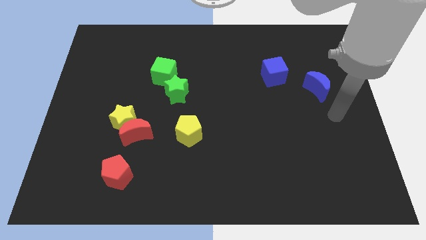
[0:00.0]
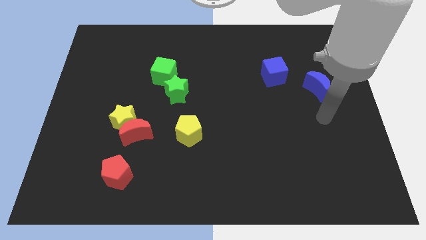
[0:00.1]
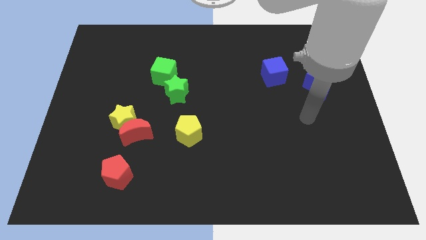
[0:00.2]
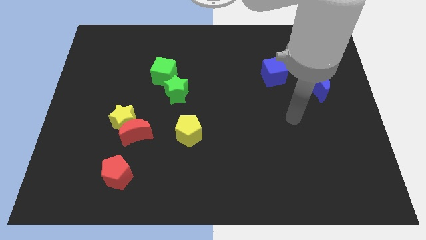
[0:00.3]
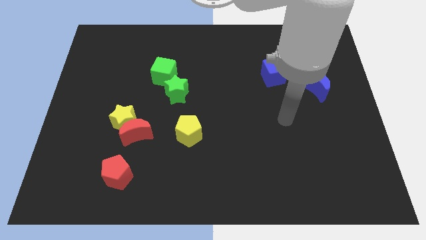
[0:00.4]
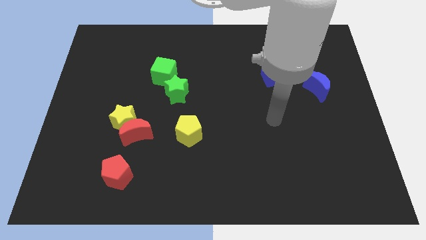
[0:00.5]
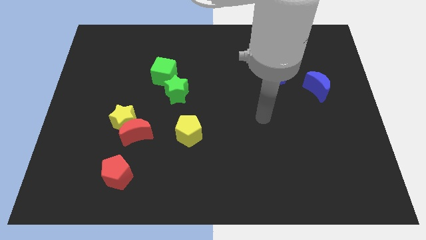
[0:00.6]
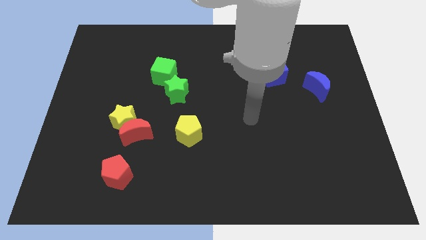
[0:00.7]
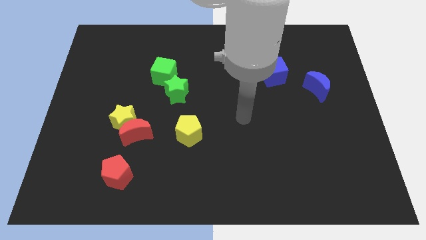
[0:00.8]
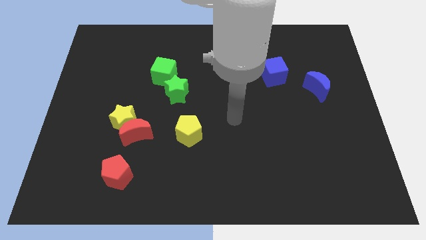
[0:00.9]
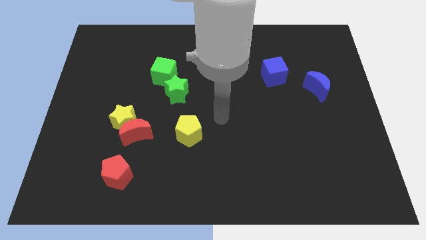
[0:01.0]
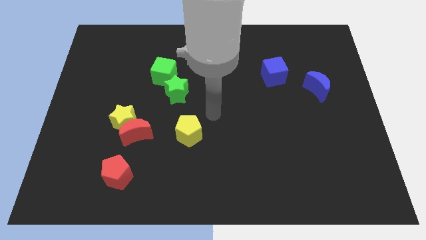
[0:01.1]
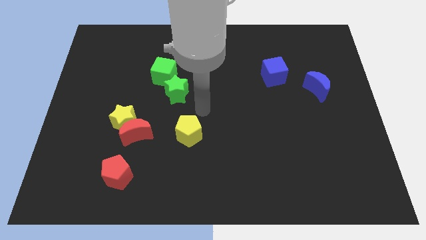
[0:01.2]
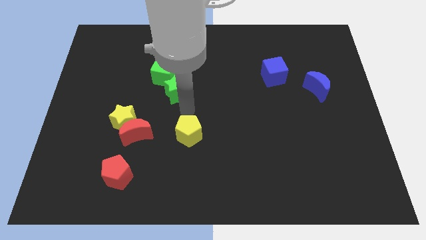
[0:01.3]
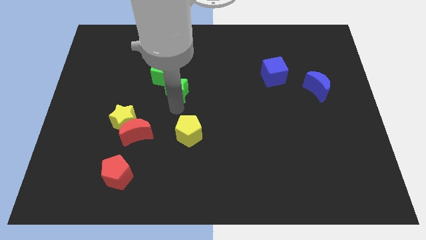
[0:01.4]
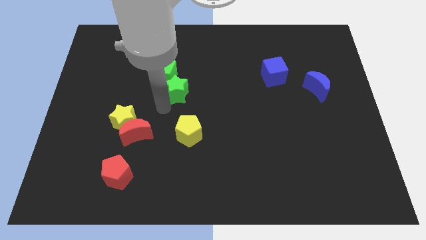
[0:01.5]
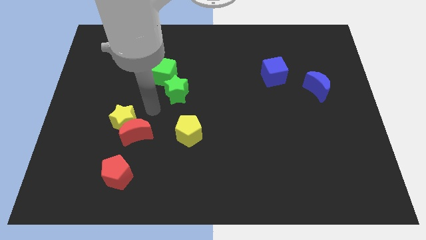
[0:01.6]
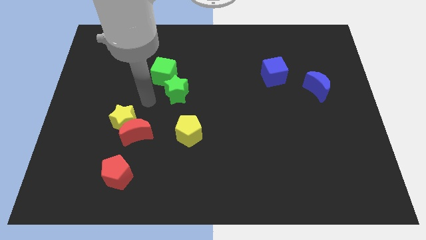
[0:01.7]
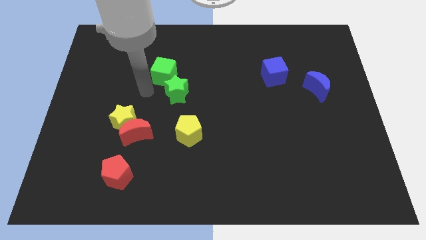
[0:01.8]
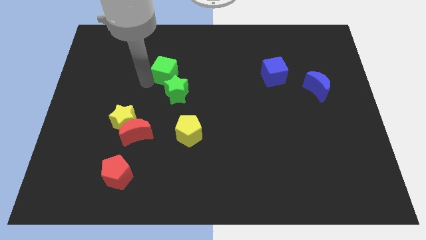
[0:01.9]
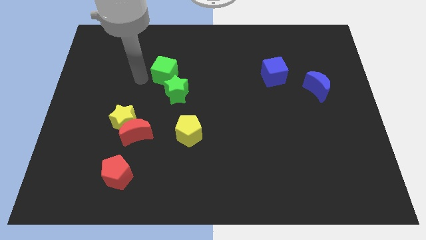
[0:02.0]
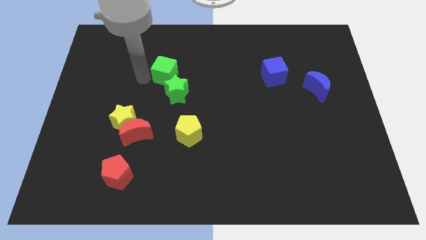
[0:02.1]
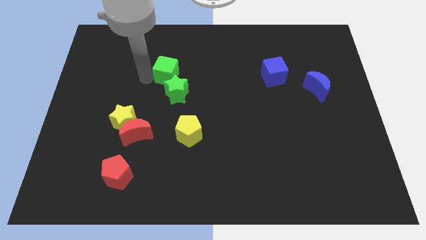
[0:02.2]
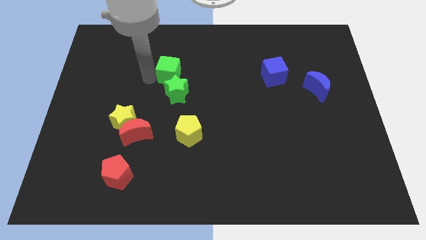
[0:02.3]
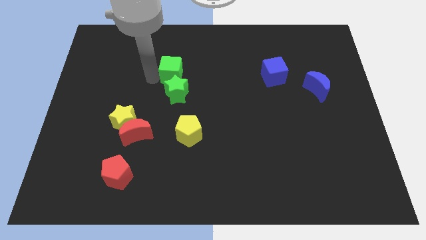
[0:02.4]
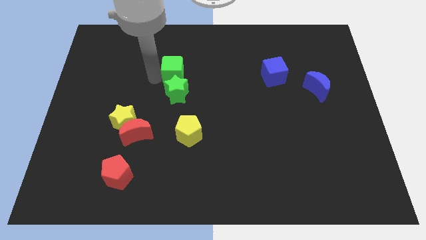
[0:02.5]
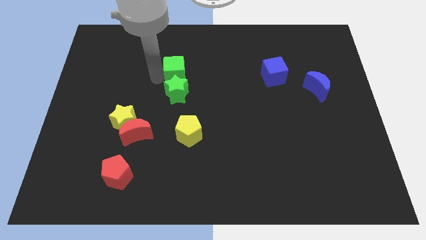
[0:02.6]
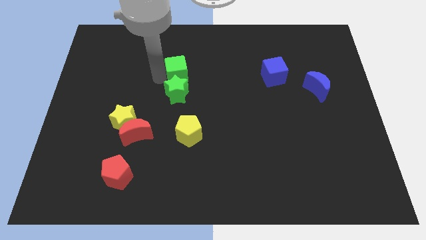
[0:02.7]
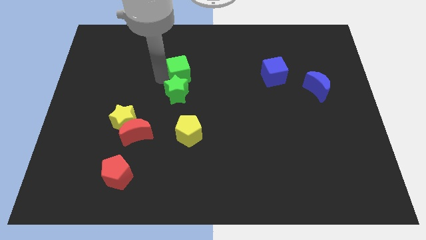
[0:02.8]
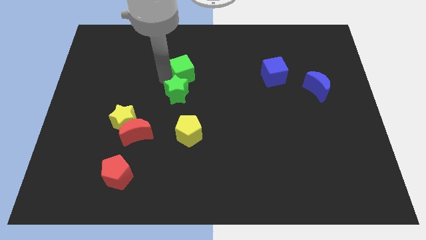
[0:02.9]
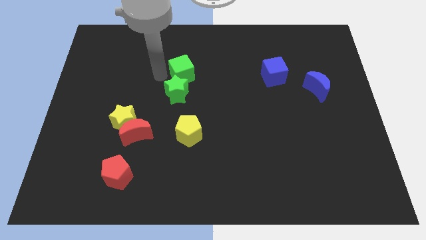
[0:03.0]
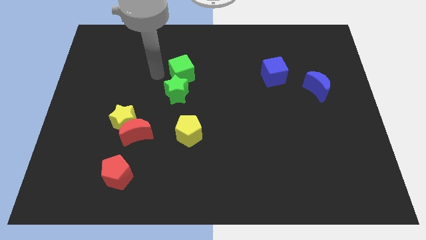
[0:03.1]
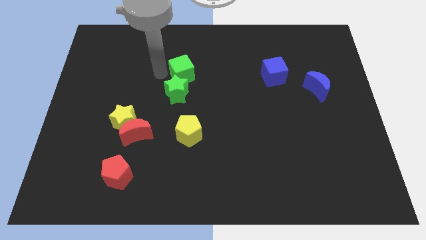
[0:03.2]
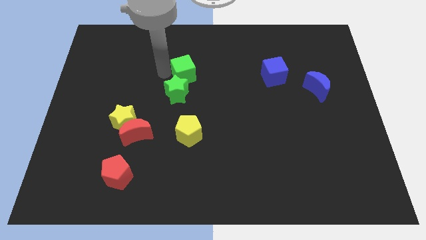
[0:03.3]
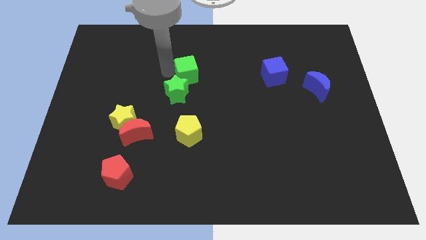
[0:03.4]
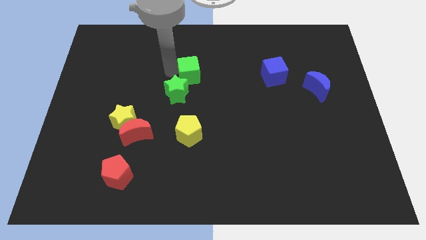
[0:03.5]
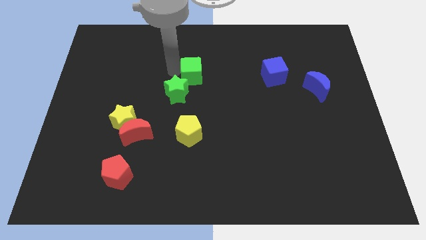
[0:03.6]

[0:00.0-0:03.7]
push the green cube to the right a little

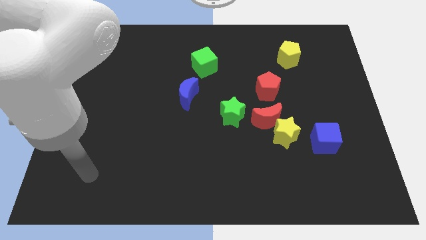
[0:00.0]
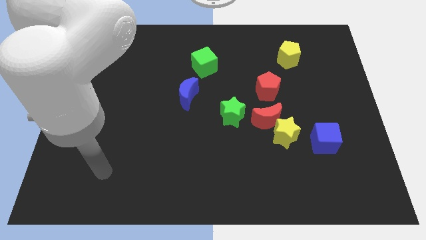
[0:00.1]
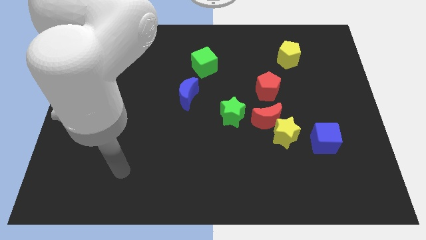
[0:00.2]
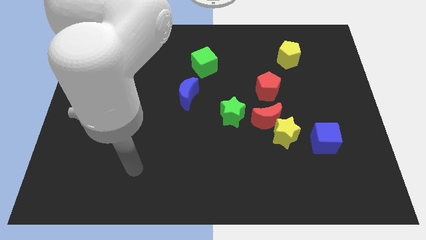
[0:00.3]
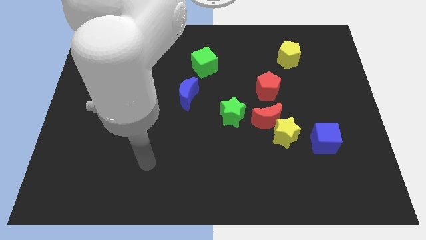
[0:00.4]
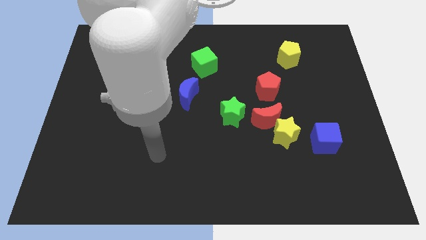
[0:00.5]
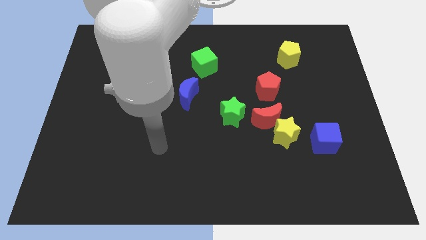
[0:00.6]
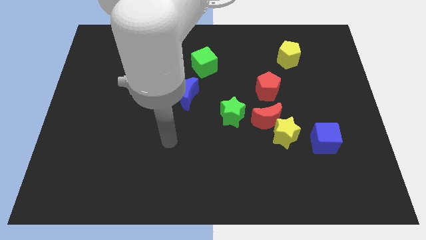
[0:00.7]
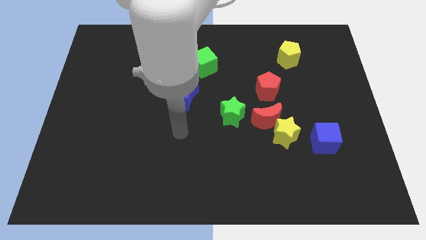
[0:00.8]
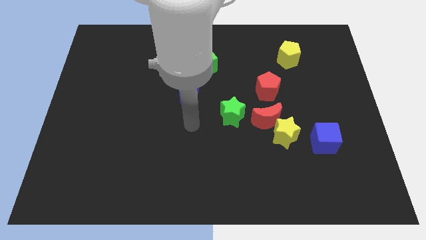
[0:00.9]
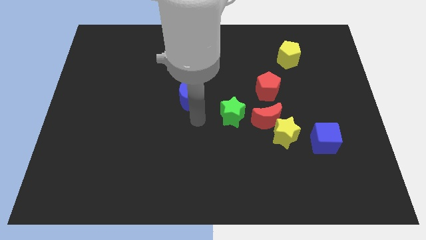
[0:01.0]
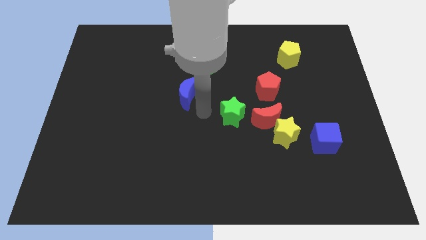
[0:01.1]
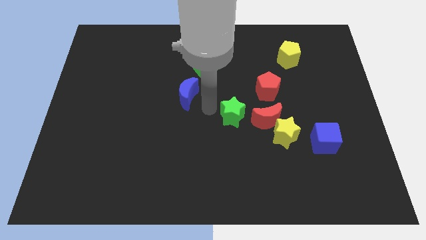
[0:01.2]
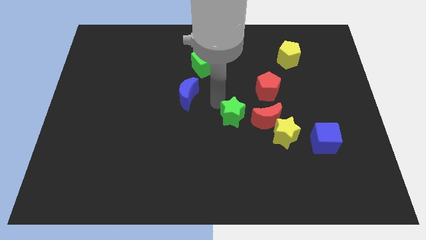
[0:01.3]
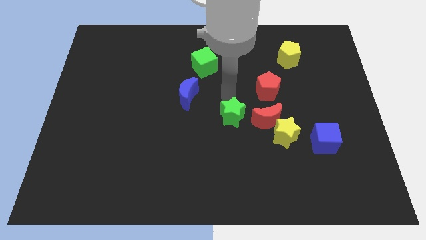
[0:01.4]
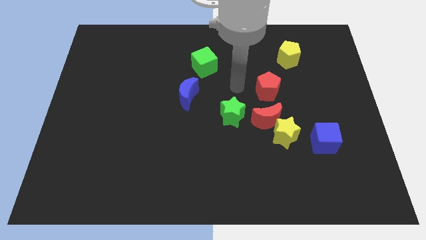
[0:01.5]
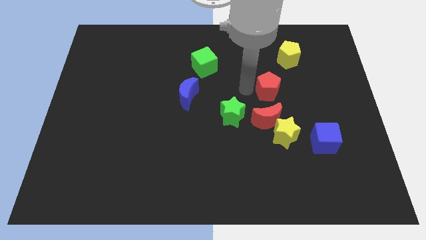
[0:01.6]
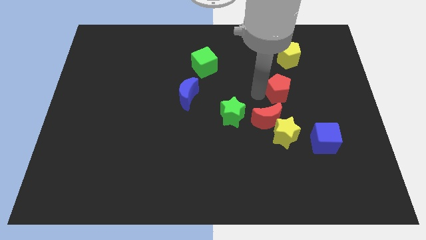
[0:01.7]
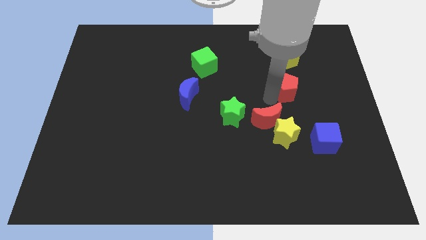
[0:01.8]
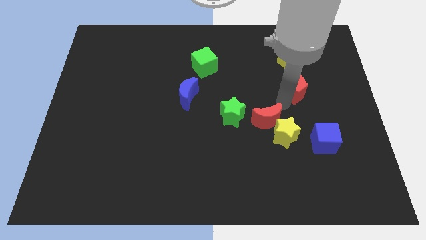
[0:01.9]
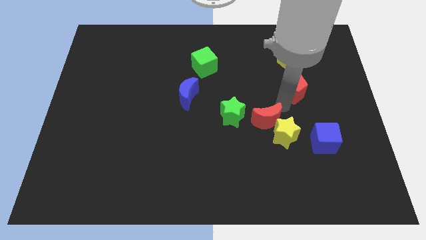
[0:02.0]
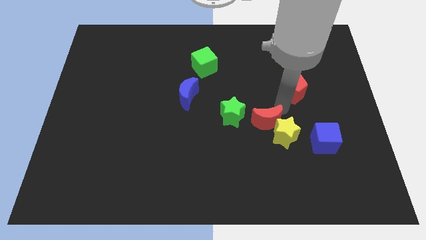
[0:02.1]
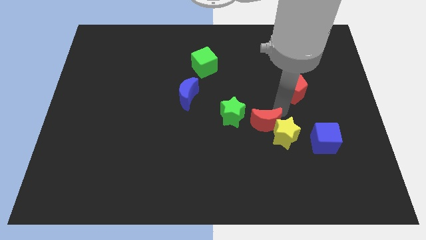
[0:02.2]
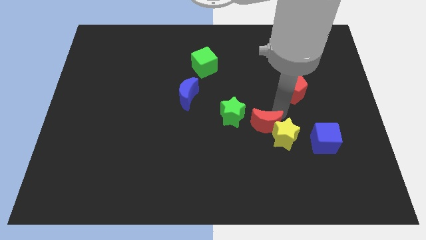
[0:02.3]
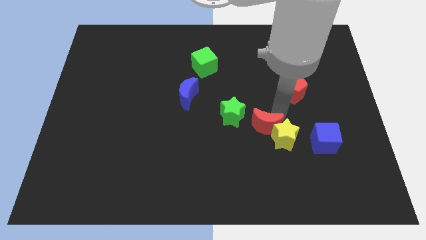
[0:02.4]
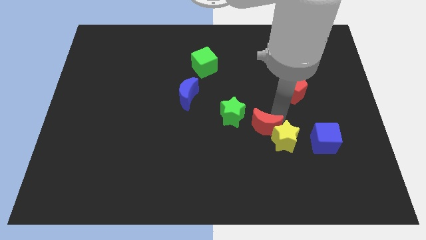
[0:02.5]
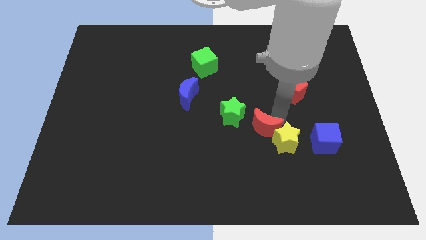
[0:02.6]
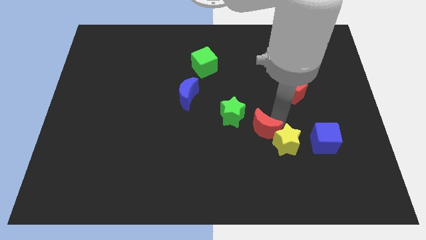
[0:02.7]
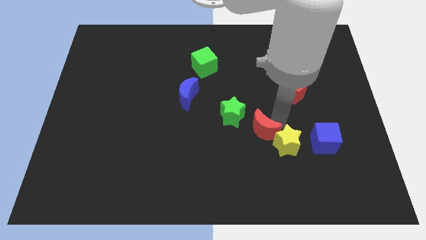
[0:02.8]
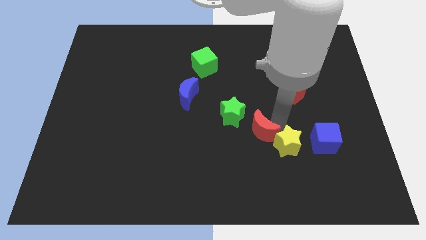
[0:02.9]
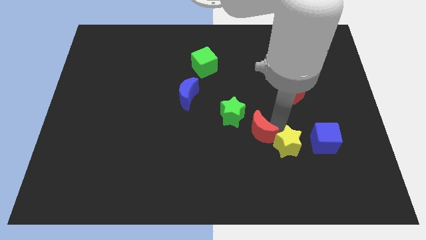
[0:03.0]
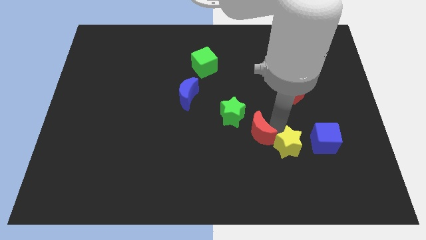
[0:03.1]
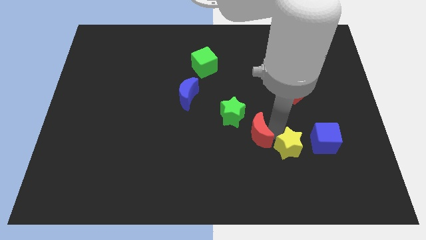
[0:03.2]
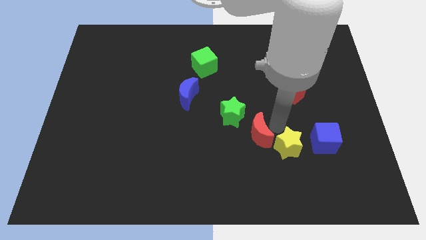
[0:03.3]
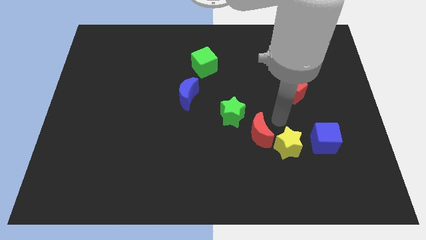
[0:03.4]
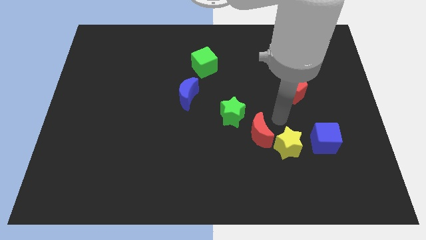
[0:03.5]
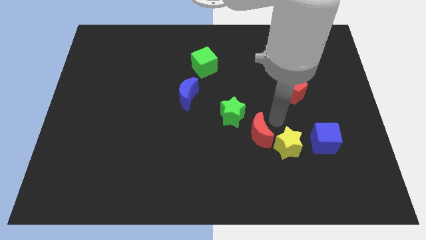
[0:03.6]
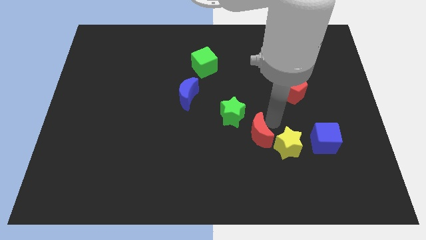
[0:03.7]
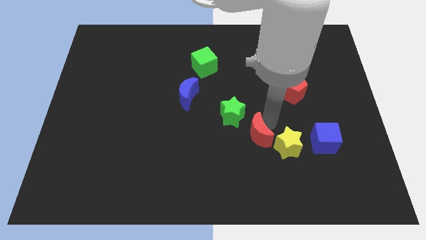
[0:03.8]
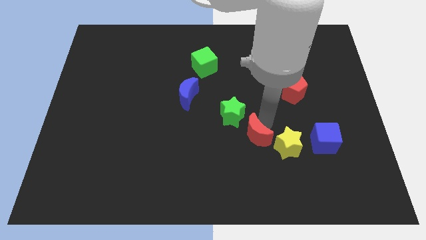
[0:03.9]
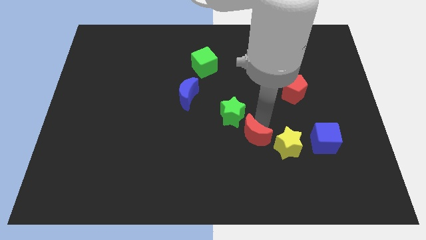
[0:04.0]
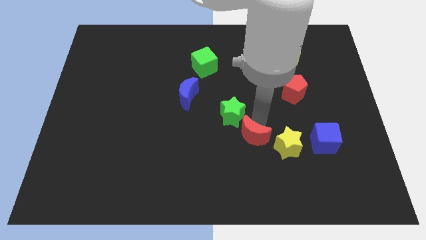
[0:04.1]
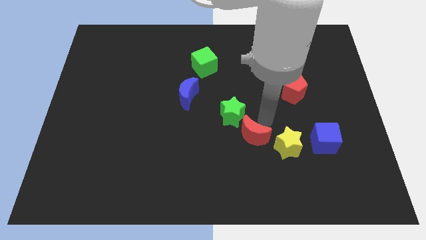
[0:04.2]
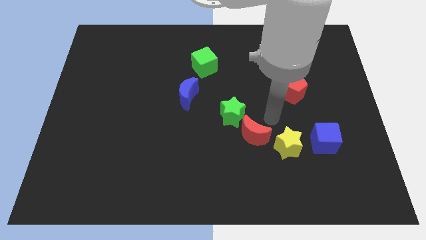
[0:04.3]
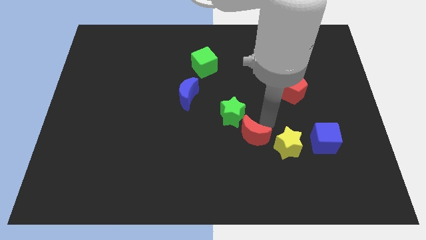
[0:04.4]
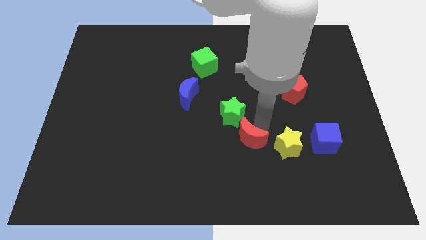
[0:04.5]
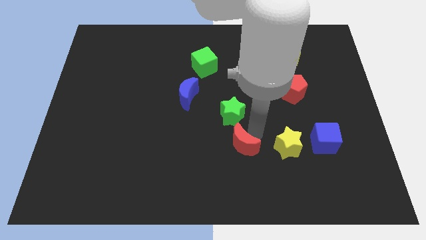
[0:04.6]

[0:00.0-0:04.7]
push the red moon down and then to the left a little
